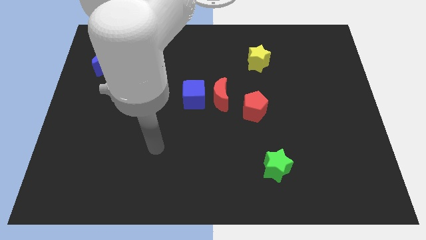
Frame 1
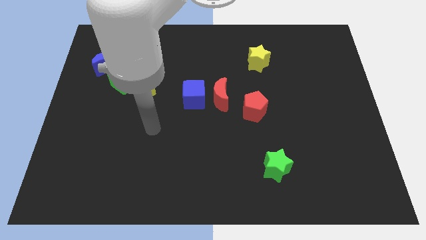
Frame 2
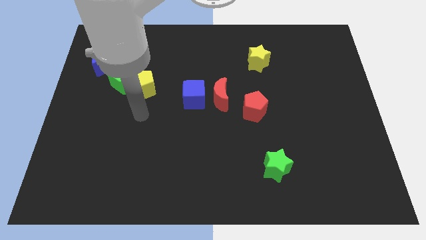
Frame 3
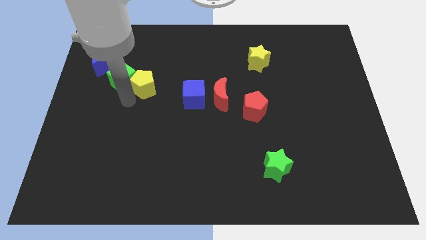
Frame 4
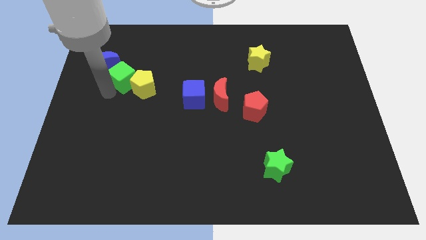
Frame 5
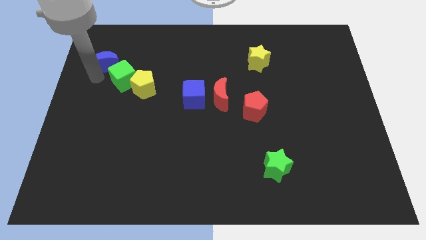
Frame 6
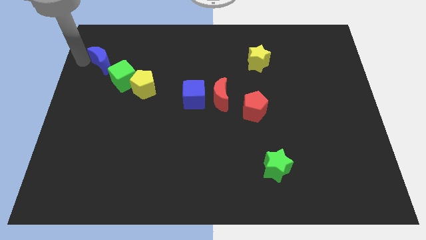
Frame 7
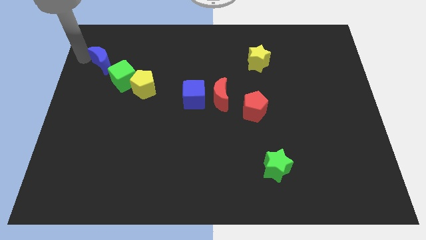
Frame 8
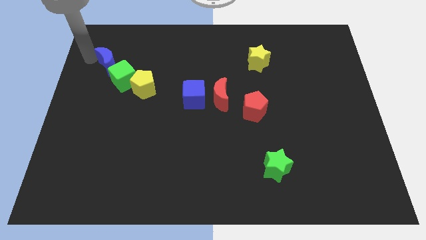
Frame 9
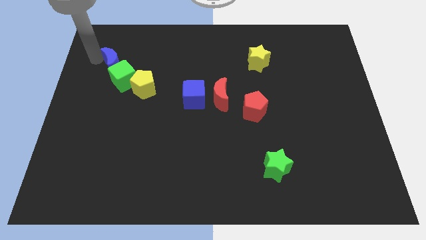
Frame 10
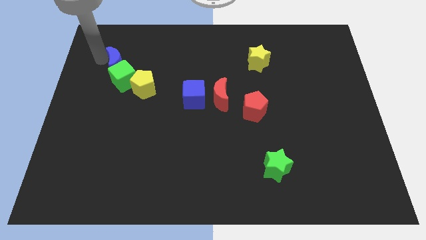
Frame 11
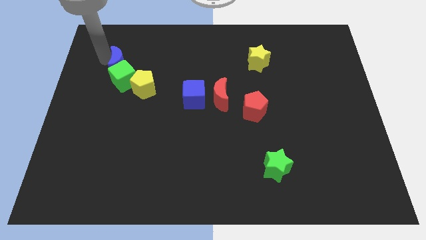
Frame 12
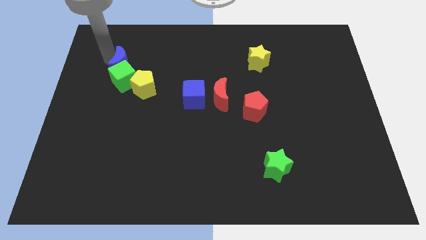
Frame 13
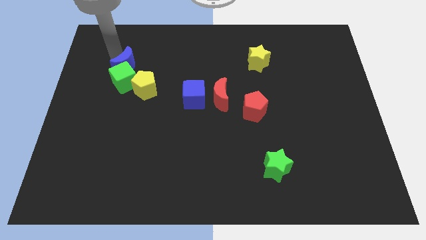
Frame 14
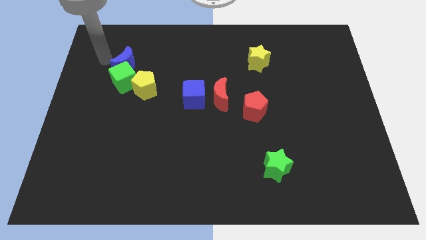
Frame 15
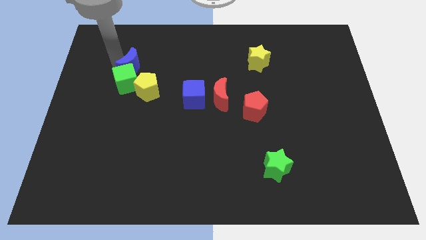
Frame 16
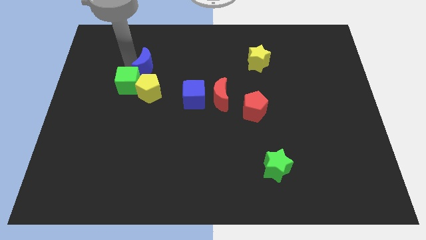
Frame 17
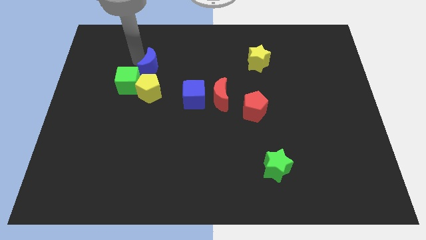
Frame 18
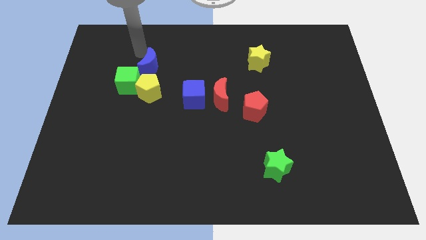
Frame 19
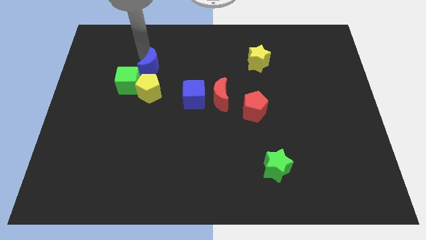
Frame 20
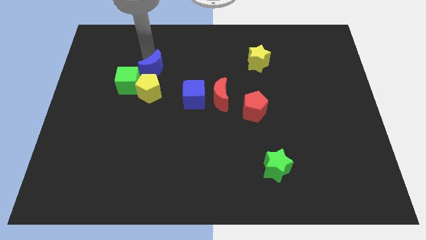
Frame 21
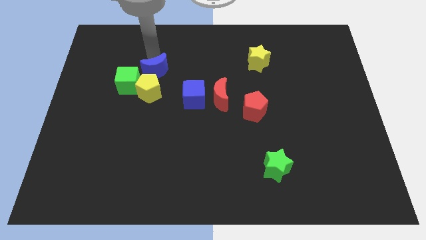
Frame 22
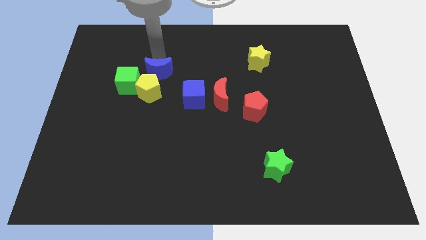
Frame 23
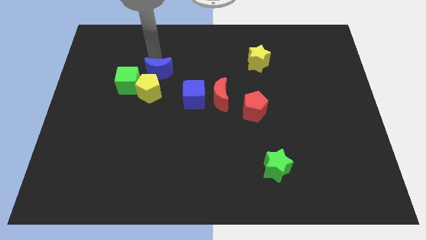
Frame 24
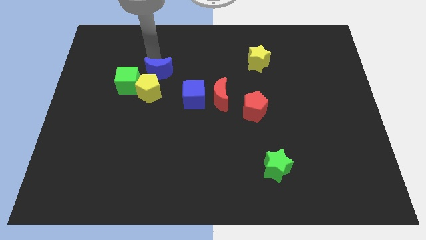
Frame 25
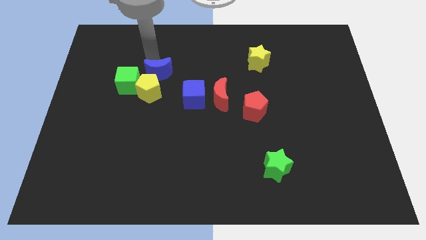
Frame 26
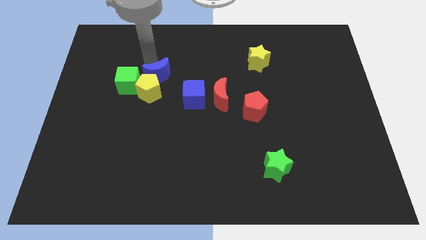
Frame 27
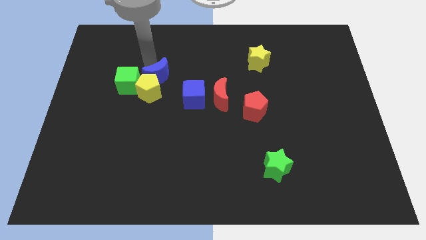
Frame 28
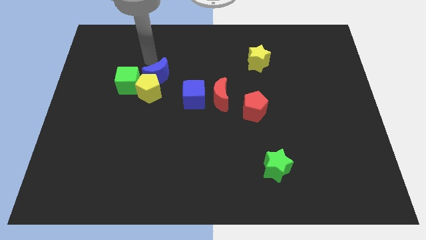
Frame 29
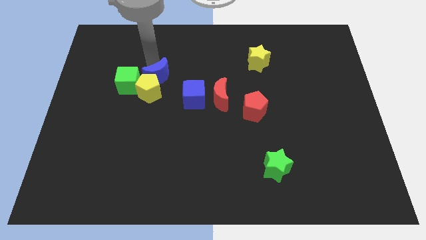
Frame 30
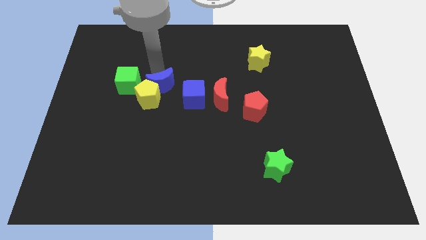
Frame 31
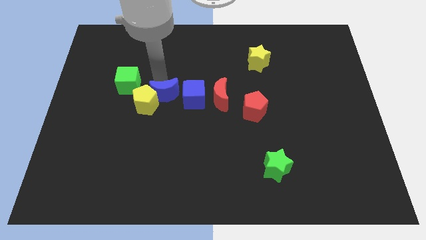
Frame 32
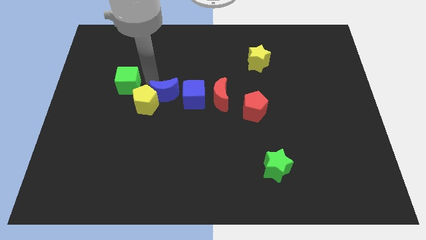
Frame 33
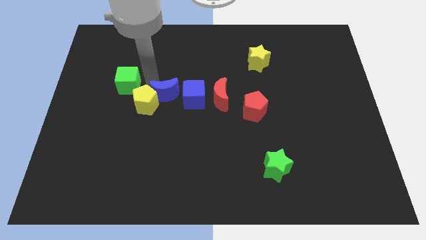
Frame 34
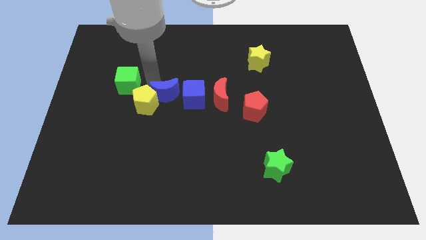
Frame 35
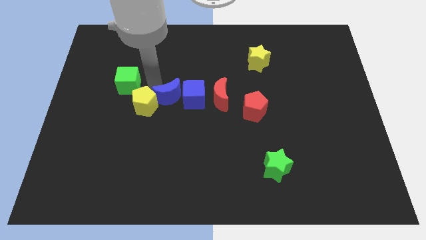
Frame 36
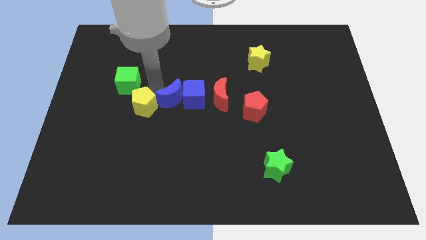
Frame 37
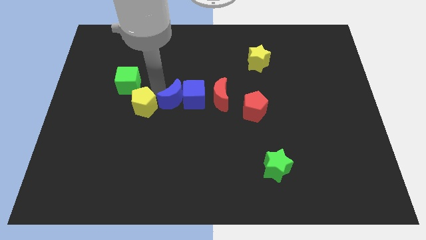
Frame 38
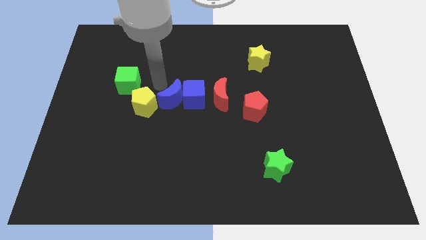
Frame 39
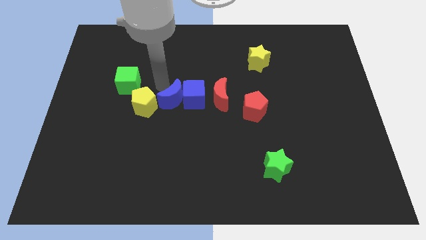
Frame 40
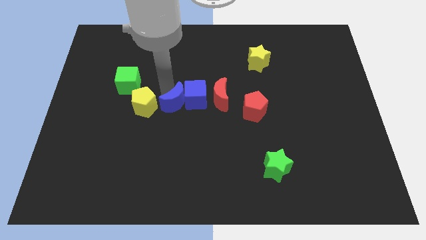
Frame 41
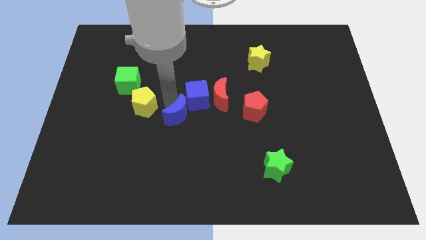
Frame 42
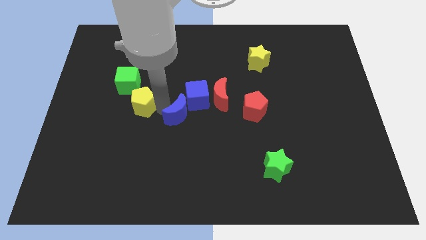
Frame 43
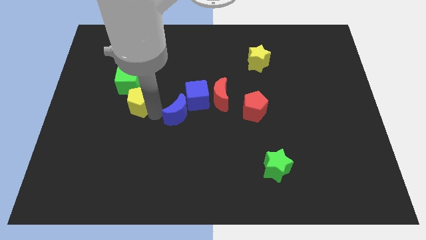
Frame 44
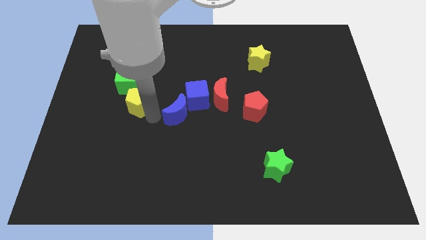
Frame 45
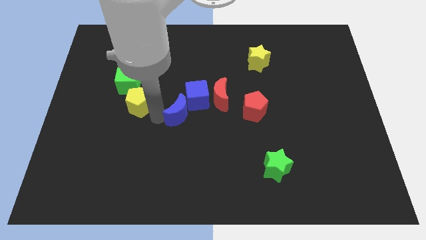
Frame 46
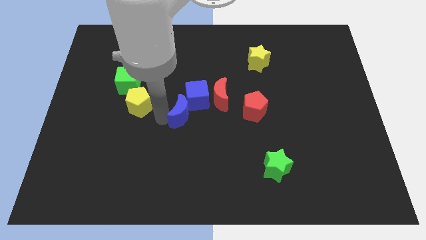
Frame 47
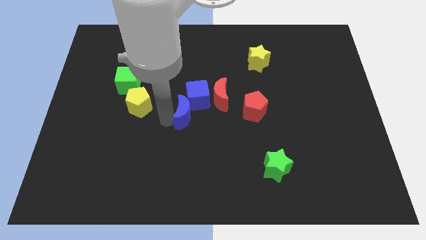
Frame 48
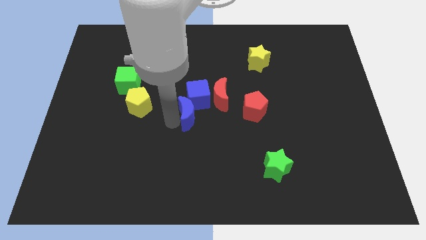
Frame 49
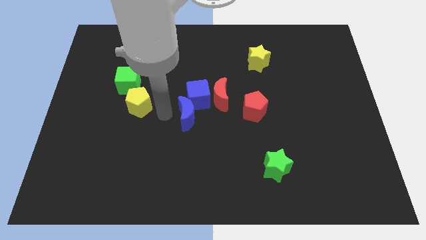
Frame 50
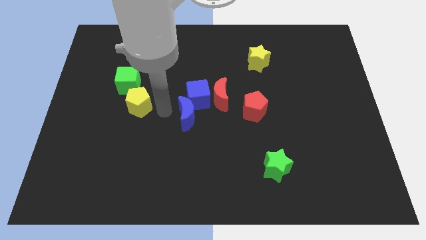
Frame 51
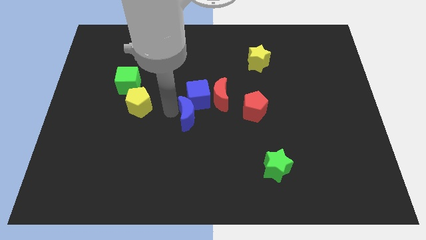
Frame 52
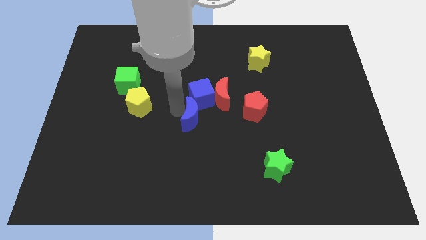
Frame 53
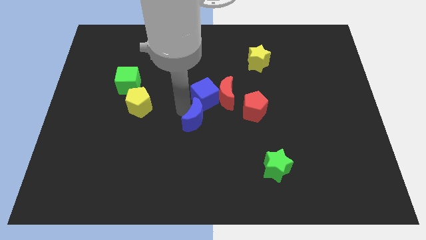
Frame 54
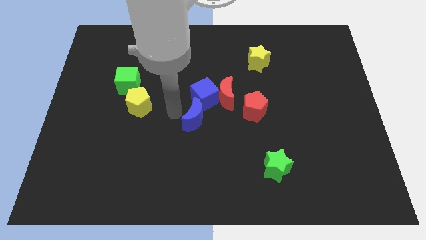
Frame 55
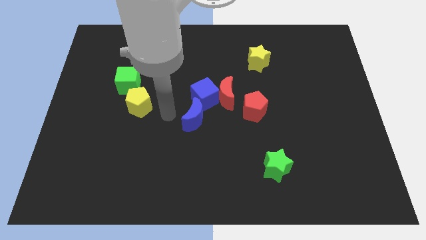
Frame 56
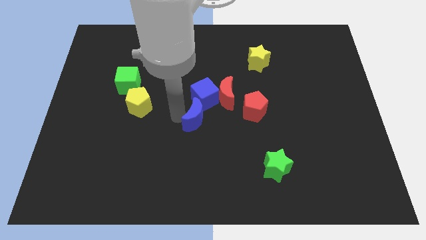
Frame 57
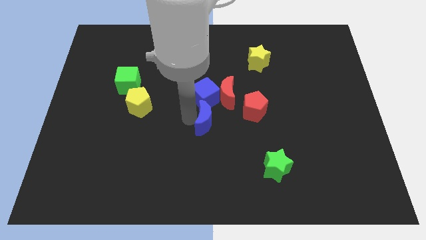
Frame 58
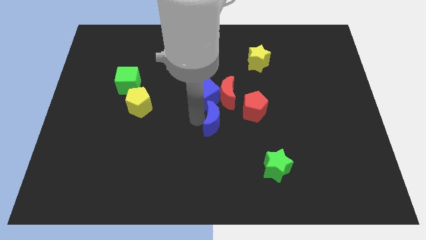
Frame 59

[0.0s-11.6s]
push the blue moon to the bottom of the red moon
